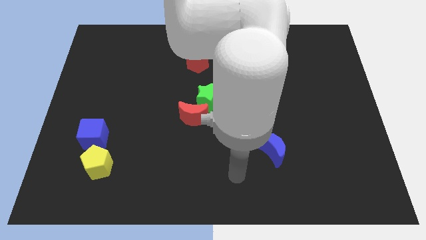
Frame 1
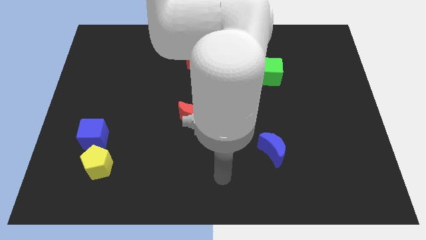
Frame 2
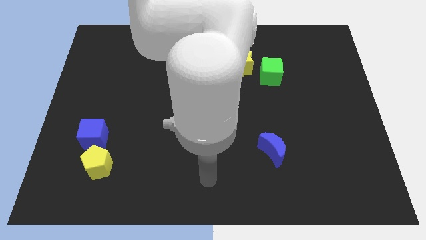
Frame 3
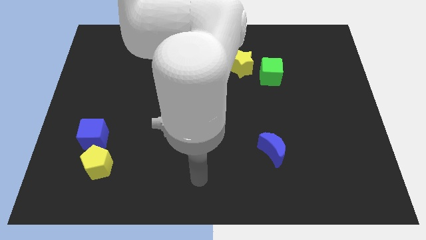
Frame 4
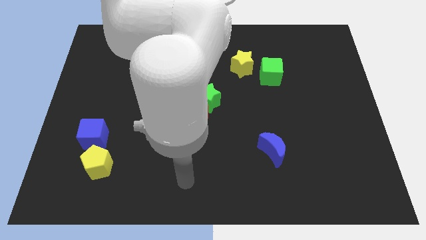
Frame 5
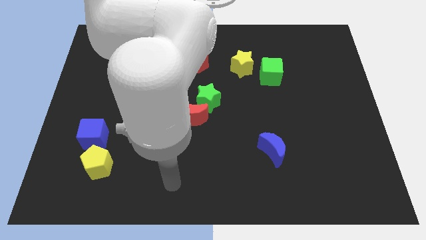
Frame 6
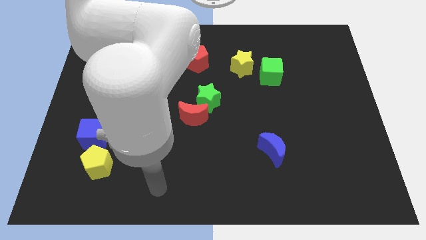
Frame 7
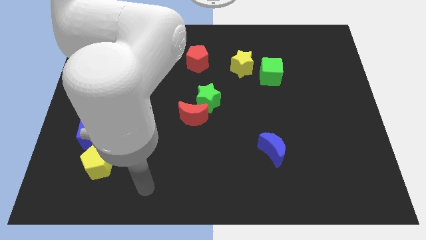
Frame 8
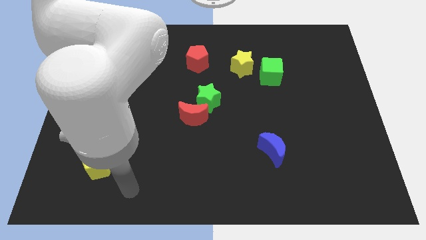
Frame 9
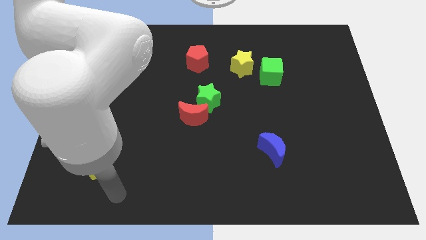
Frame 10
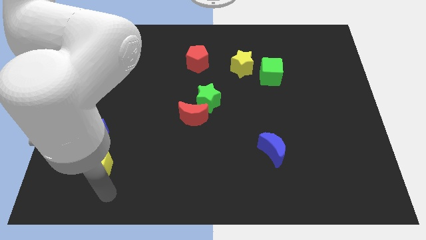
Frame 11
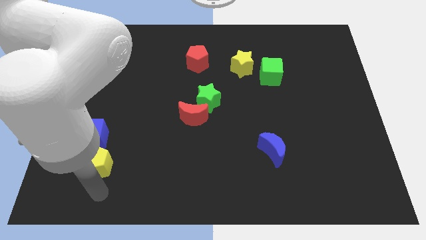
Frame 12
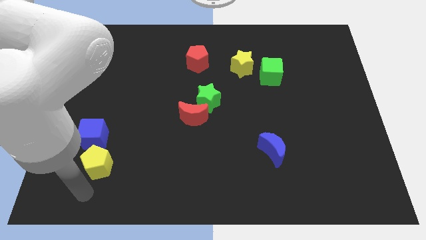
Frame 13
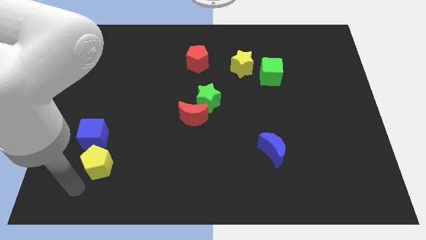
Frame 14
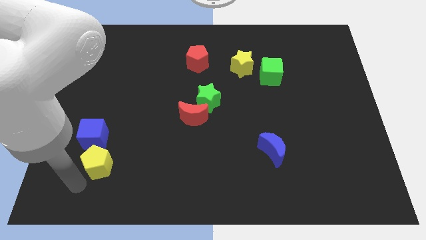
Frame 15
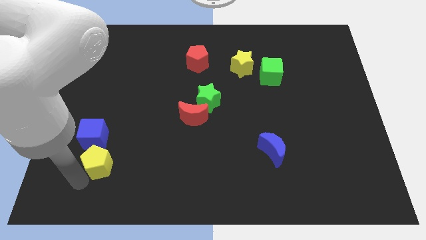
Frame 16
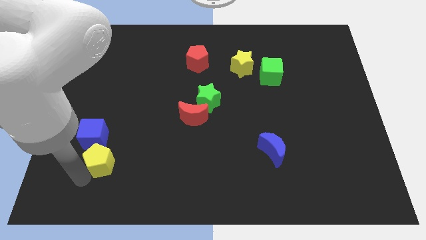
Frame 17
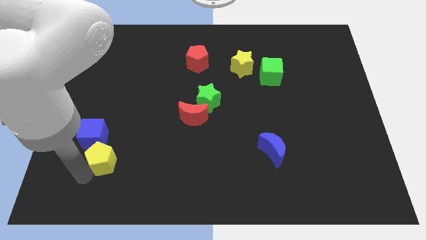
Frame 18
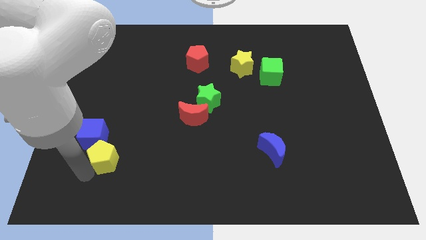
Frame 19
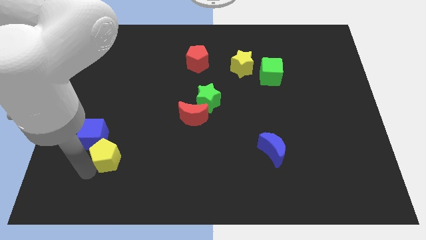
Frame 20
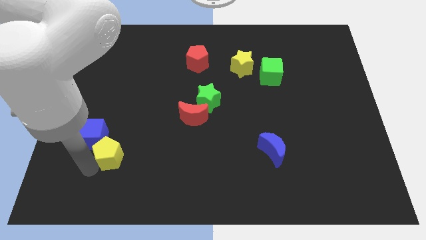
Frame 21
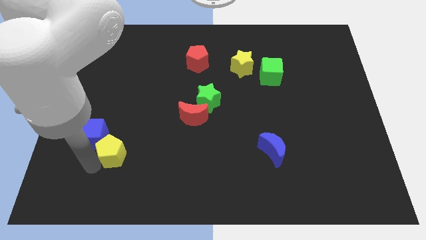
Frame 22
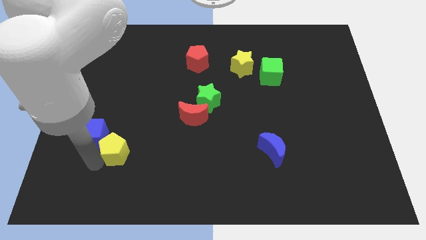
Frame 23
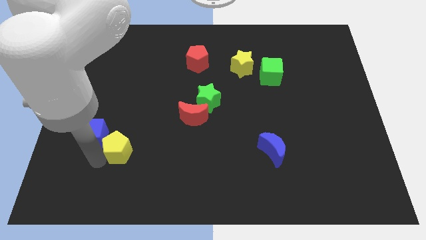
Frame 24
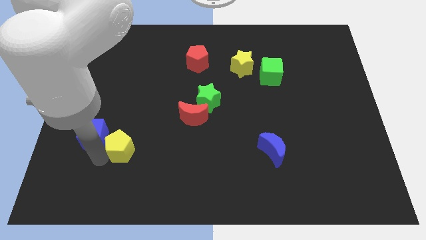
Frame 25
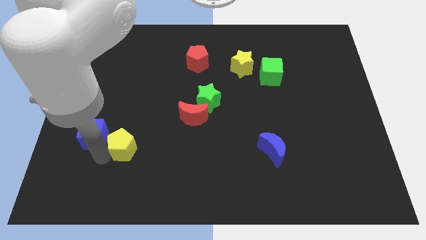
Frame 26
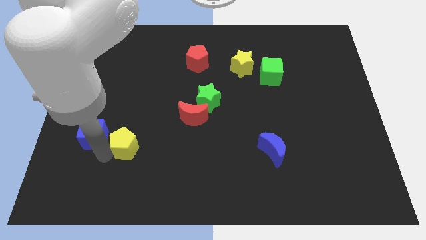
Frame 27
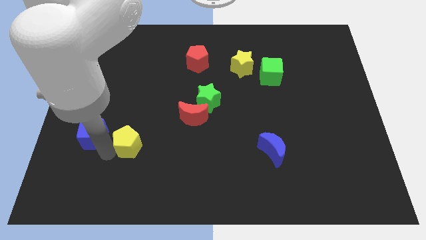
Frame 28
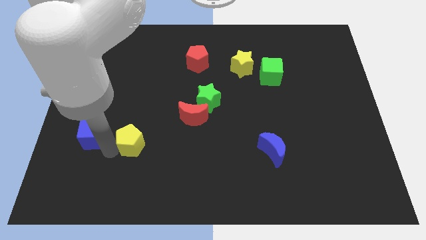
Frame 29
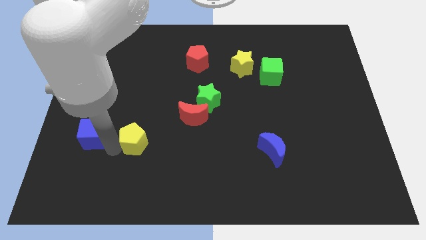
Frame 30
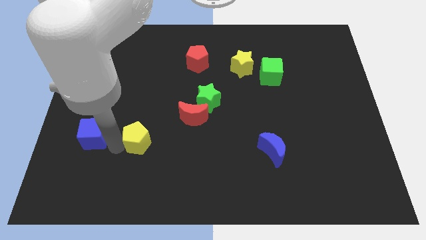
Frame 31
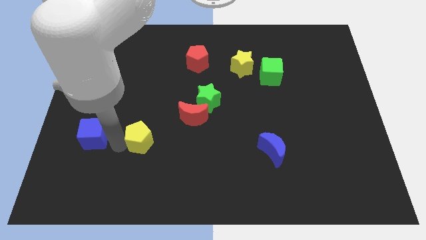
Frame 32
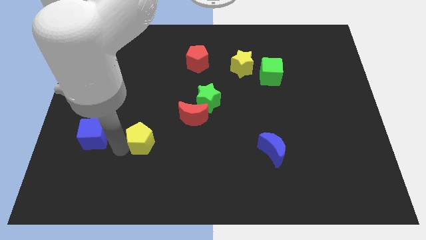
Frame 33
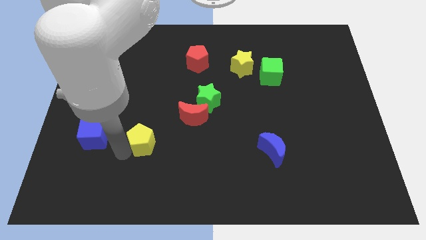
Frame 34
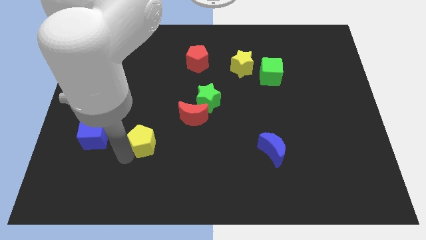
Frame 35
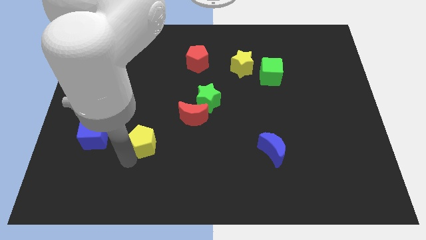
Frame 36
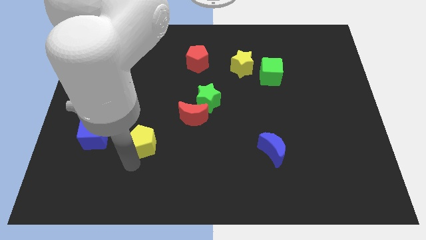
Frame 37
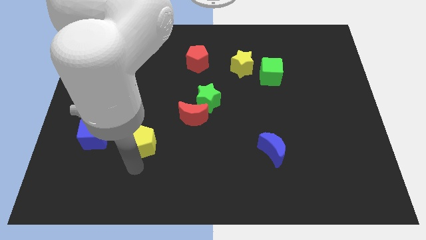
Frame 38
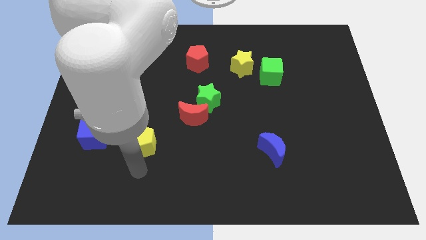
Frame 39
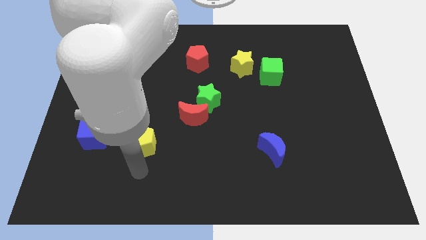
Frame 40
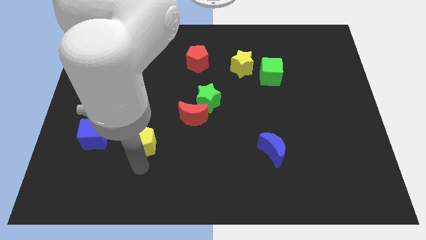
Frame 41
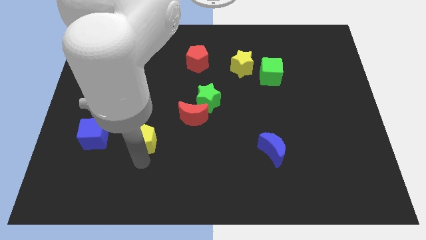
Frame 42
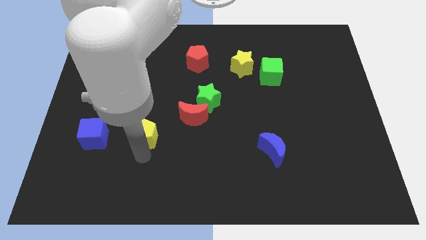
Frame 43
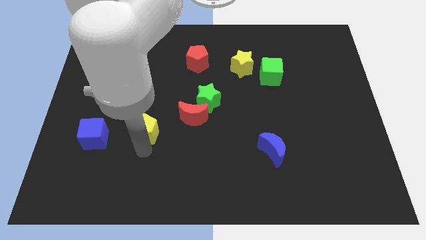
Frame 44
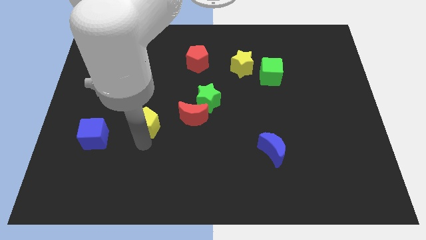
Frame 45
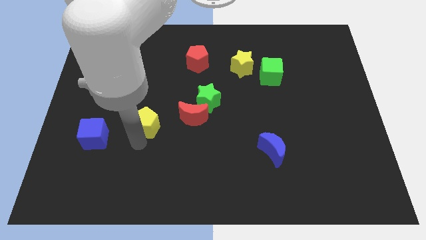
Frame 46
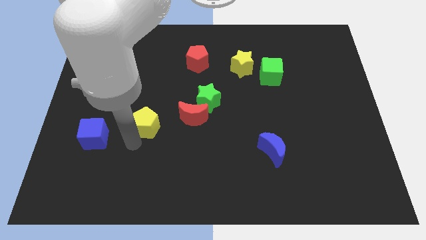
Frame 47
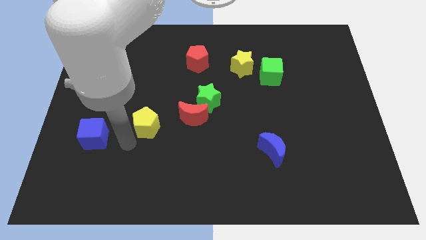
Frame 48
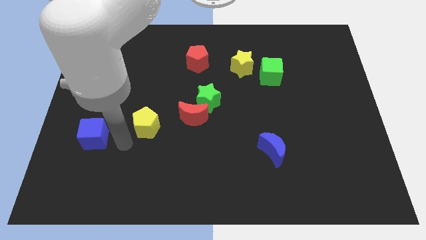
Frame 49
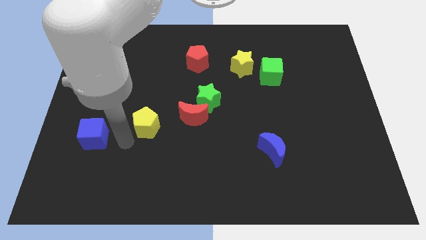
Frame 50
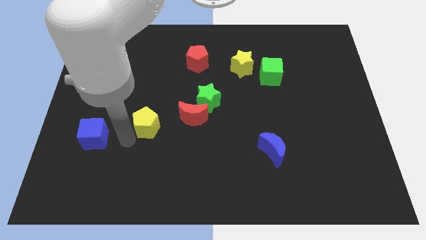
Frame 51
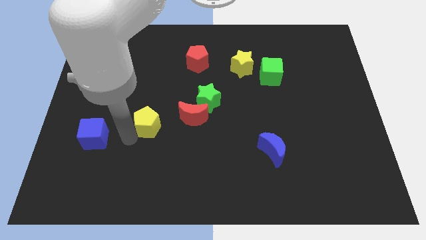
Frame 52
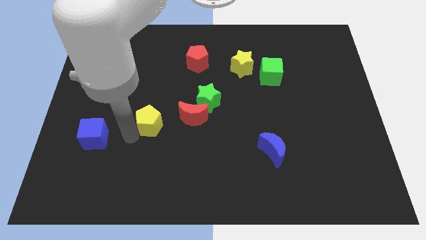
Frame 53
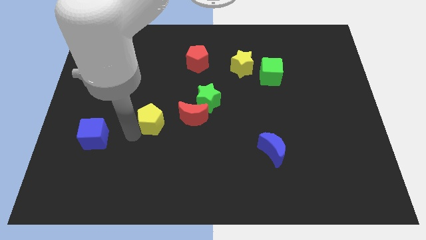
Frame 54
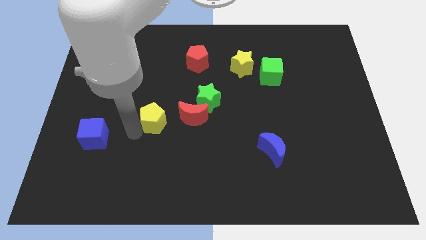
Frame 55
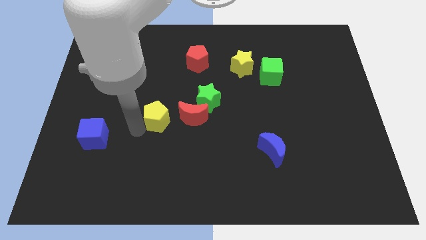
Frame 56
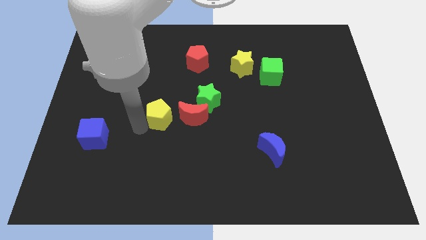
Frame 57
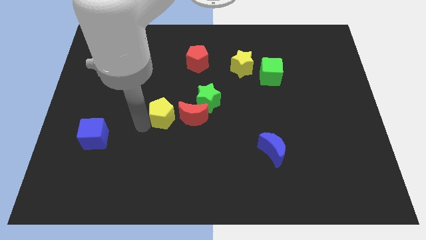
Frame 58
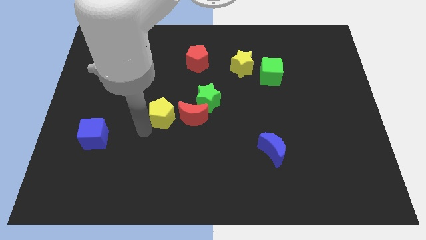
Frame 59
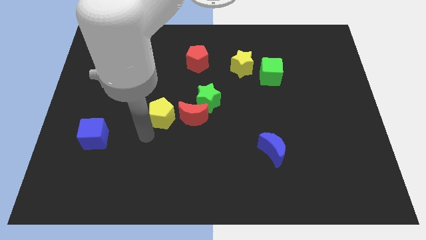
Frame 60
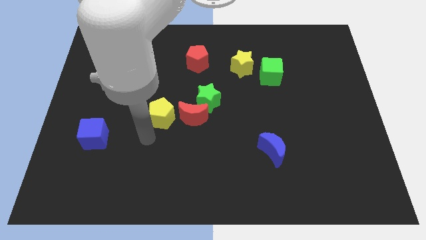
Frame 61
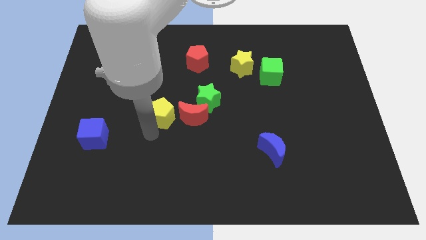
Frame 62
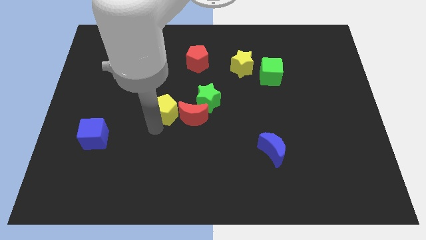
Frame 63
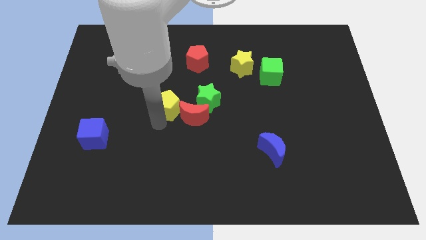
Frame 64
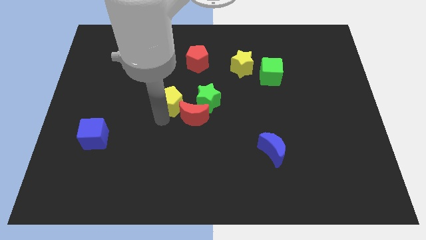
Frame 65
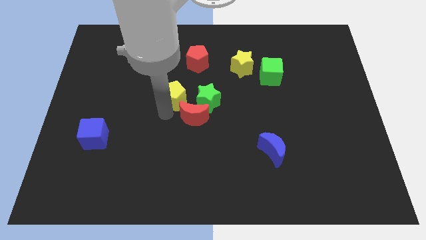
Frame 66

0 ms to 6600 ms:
push the yellow pentagon to the top left of the green star

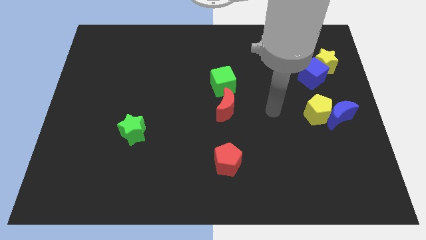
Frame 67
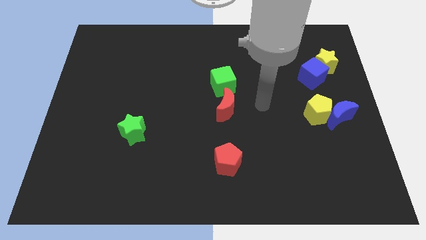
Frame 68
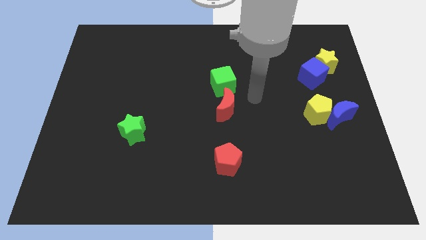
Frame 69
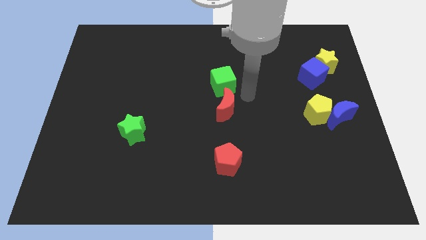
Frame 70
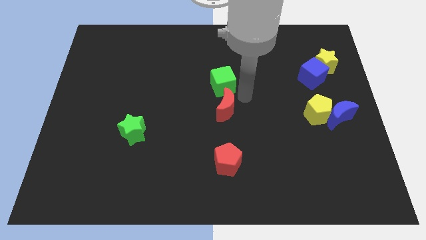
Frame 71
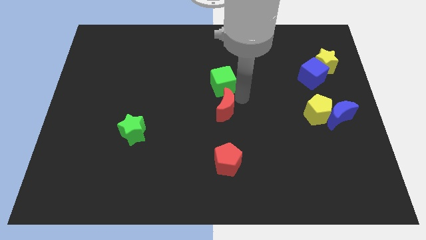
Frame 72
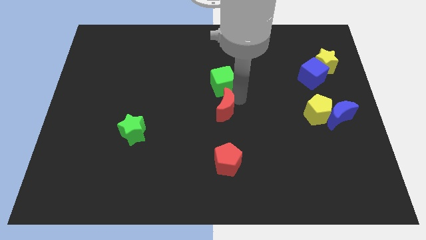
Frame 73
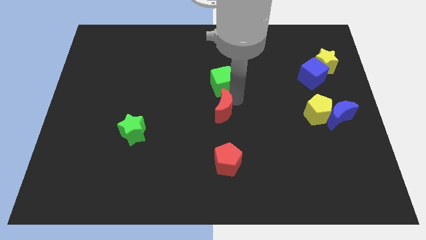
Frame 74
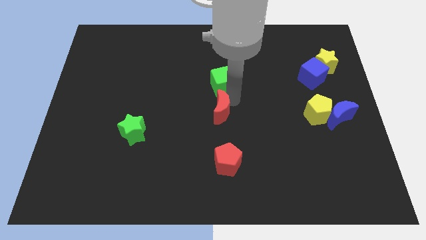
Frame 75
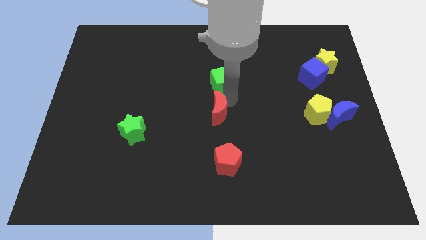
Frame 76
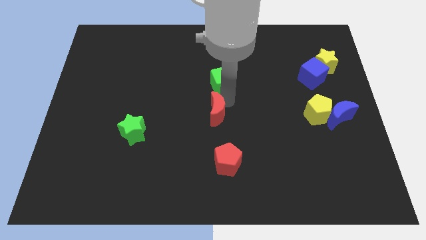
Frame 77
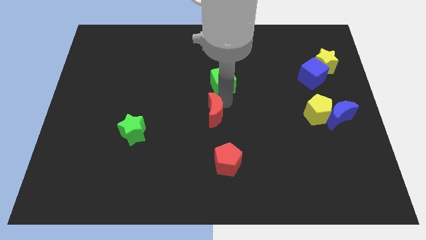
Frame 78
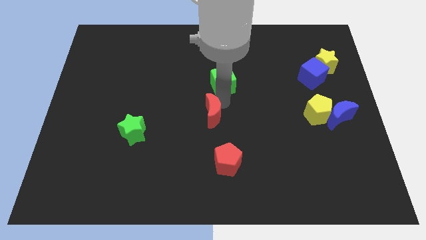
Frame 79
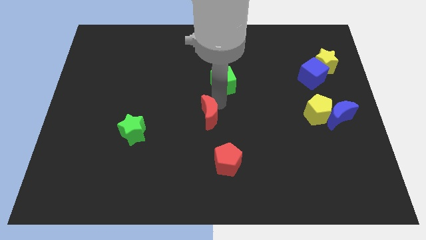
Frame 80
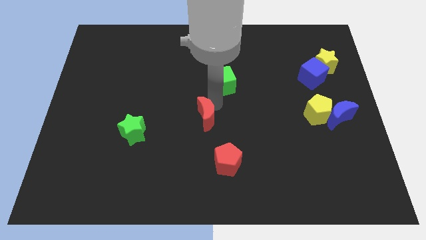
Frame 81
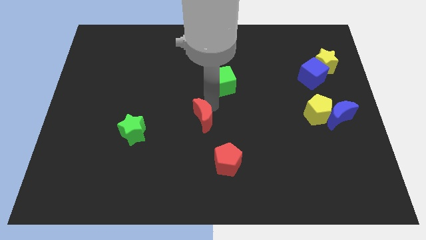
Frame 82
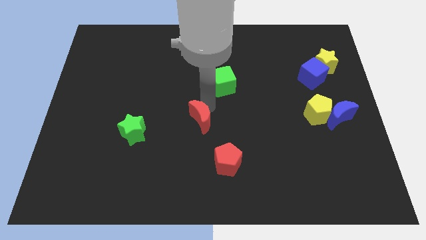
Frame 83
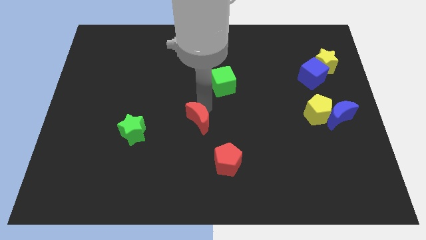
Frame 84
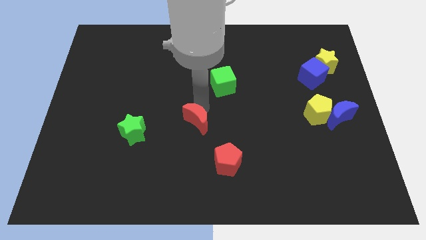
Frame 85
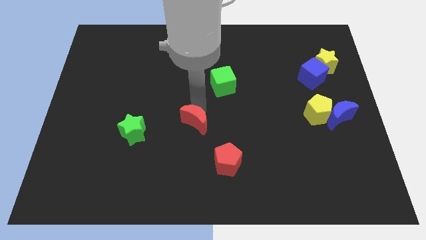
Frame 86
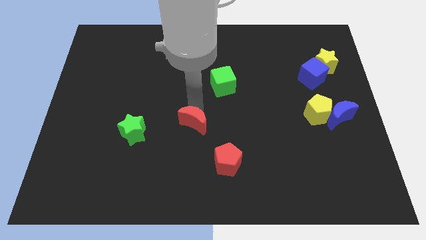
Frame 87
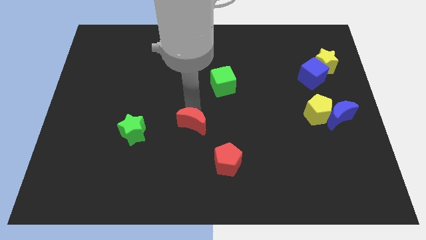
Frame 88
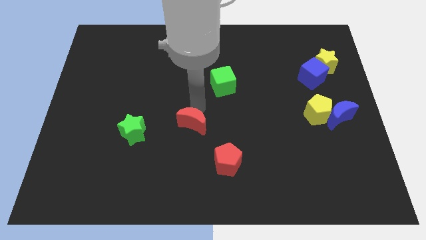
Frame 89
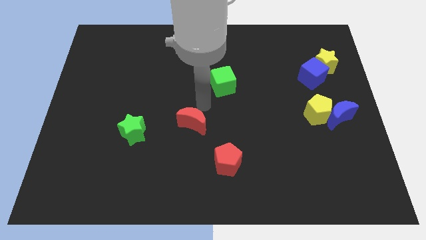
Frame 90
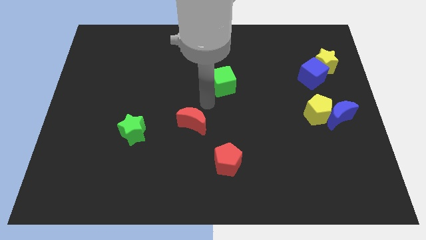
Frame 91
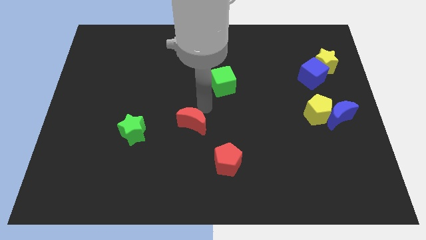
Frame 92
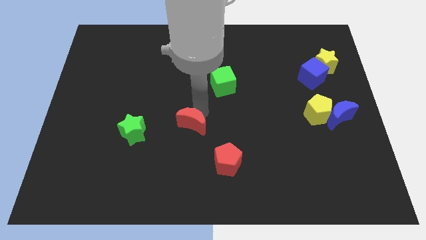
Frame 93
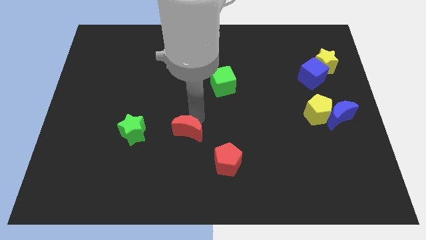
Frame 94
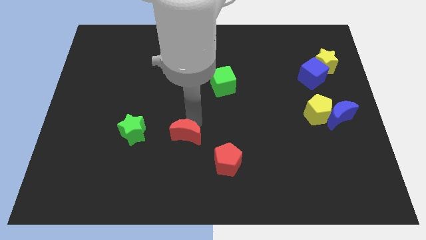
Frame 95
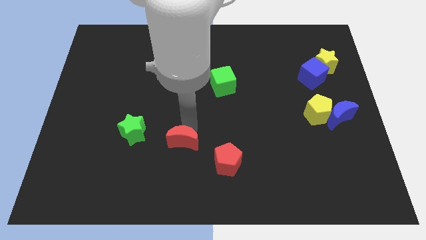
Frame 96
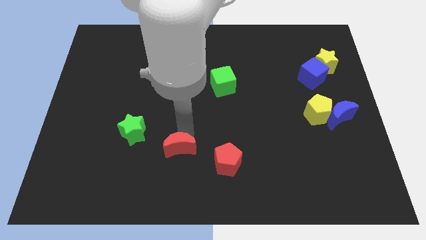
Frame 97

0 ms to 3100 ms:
push the red moon left of the red pentagon
